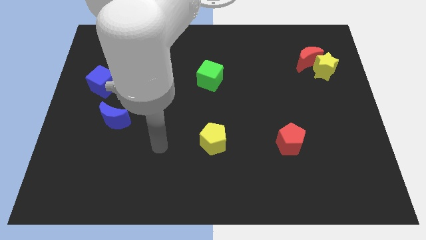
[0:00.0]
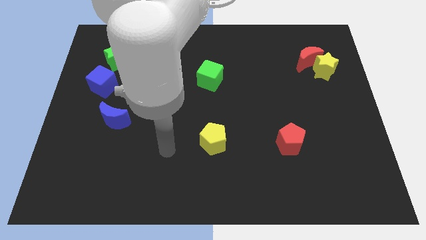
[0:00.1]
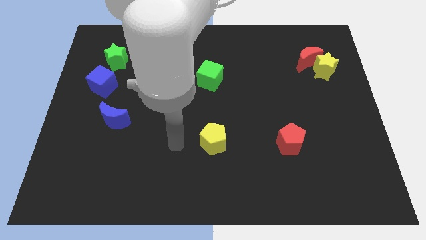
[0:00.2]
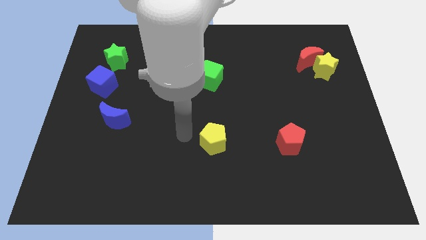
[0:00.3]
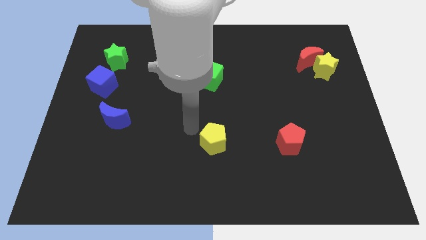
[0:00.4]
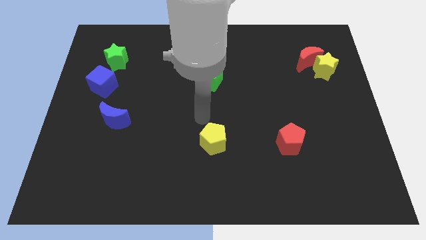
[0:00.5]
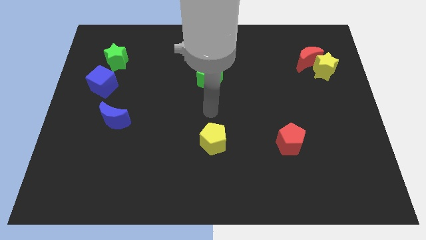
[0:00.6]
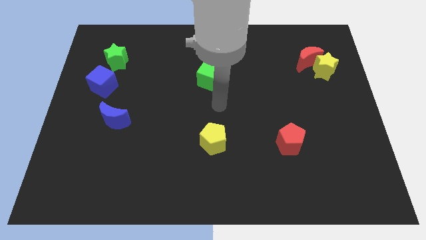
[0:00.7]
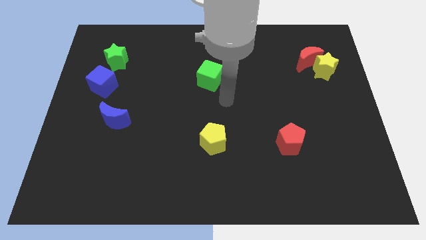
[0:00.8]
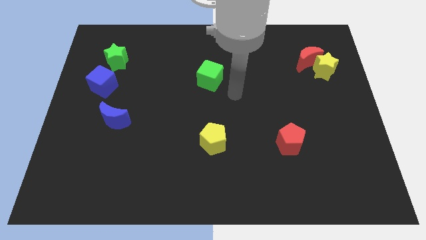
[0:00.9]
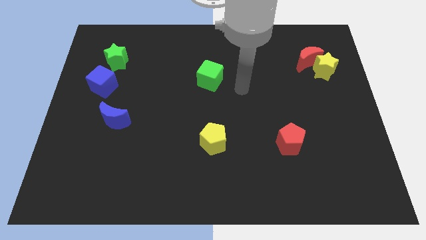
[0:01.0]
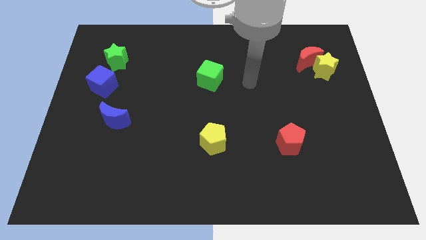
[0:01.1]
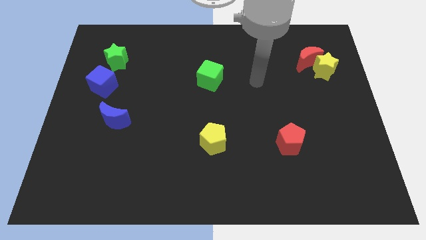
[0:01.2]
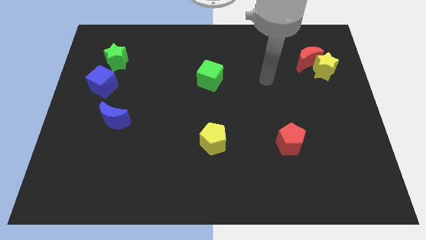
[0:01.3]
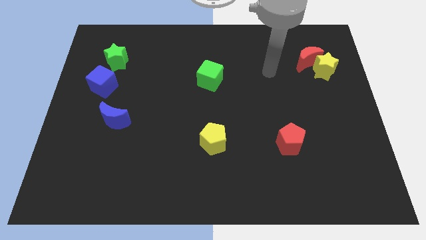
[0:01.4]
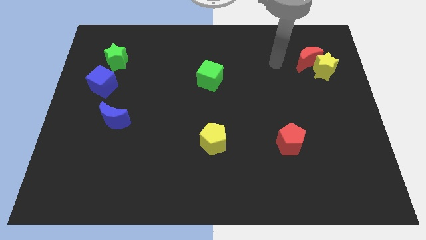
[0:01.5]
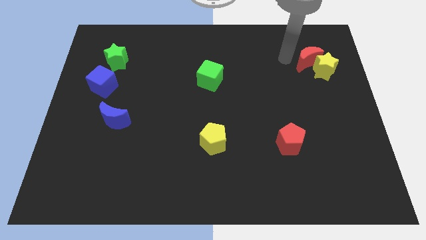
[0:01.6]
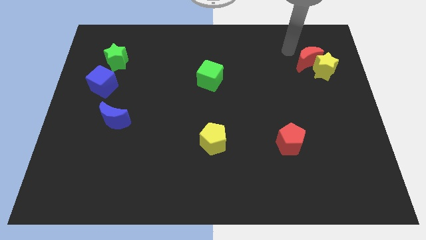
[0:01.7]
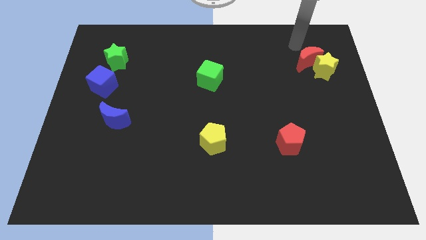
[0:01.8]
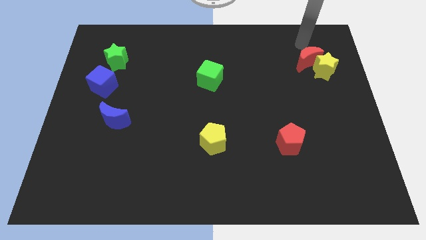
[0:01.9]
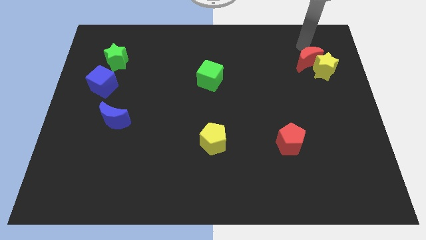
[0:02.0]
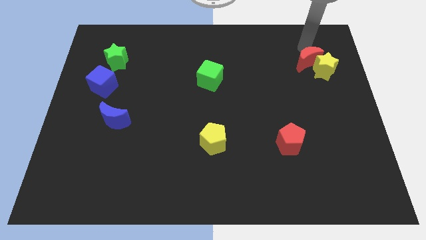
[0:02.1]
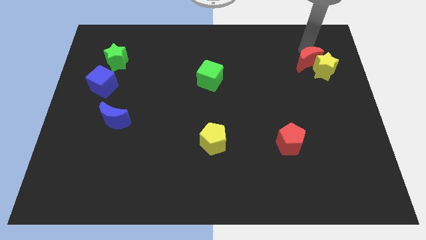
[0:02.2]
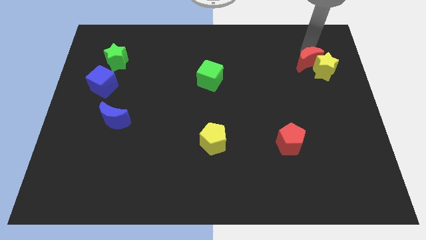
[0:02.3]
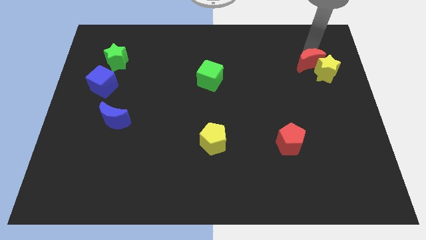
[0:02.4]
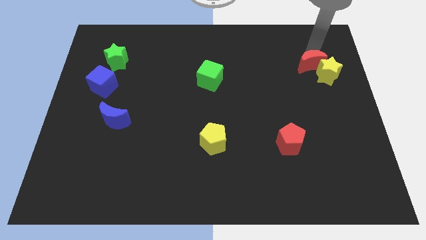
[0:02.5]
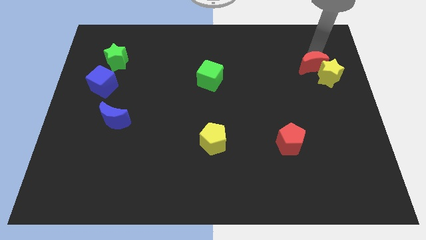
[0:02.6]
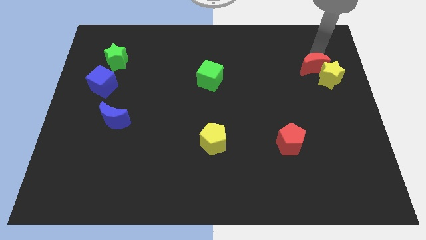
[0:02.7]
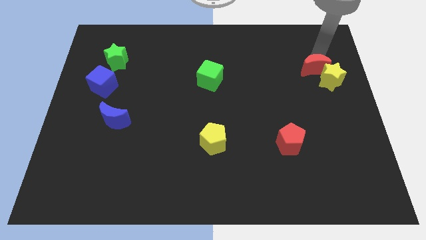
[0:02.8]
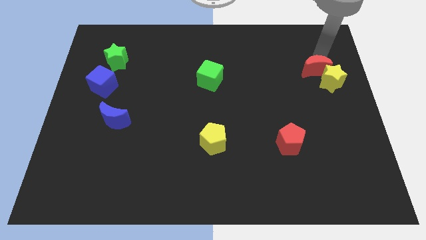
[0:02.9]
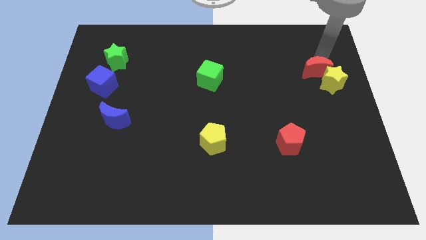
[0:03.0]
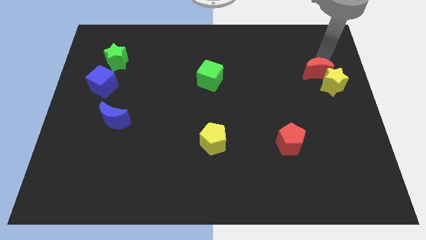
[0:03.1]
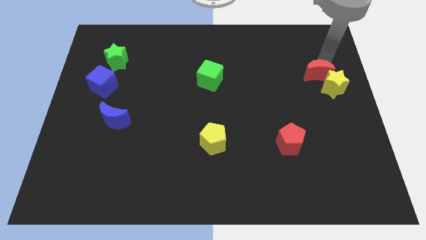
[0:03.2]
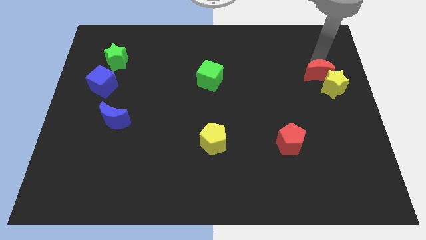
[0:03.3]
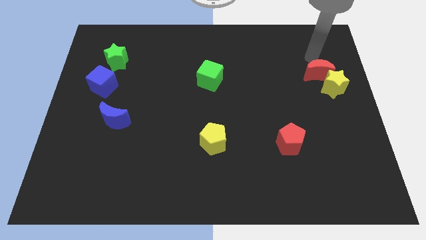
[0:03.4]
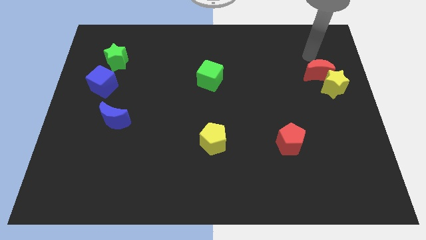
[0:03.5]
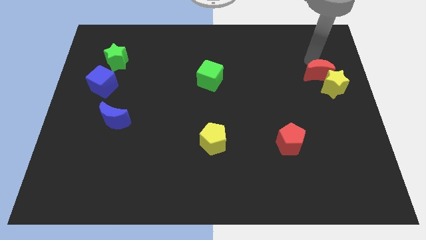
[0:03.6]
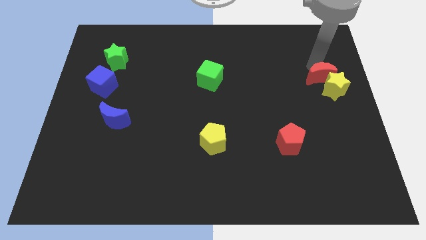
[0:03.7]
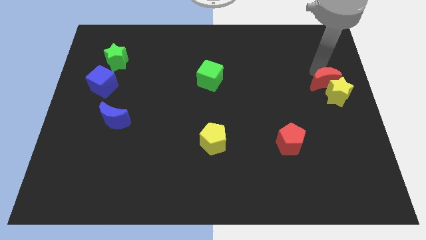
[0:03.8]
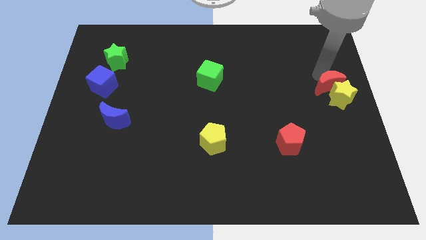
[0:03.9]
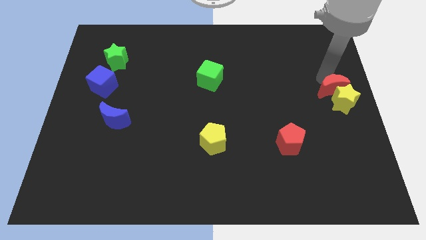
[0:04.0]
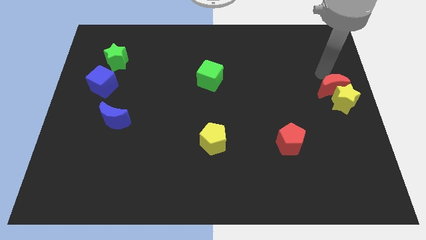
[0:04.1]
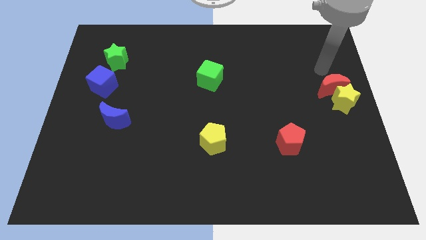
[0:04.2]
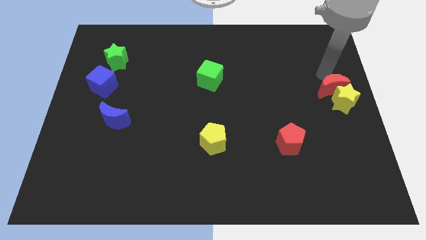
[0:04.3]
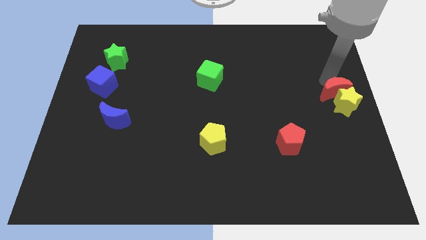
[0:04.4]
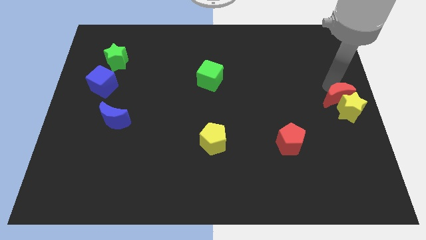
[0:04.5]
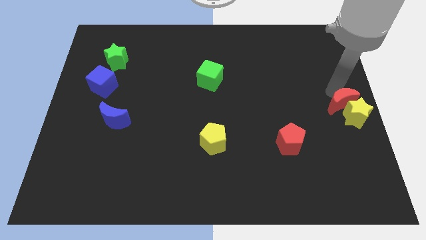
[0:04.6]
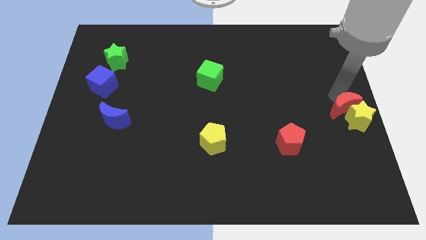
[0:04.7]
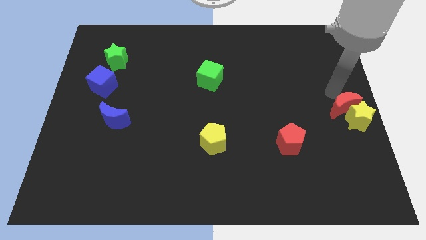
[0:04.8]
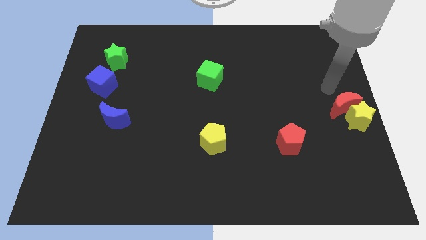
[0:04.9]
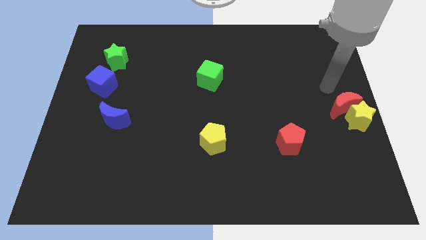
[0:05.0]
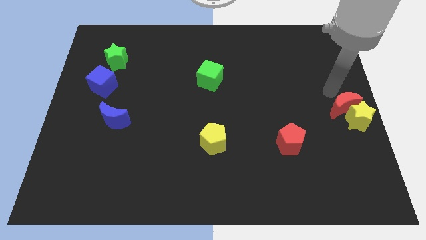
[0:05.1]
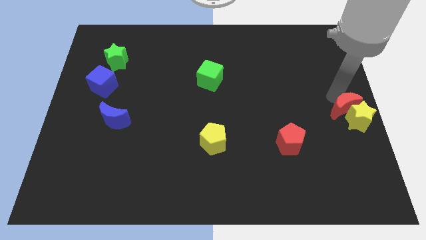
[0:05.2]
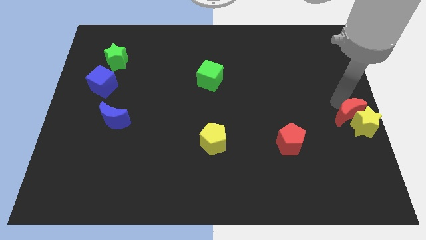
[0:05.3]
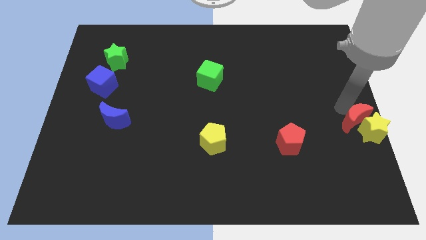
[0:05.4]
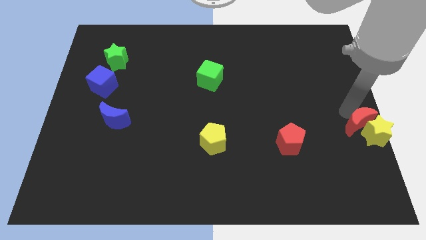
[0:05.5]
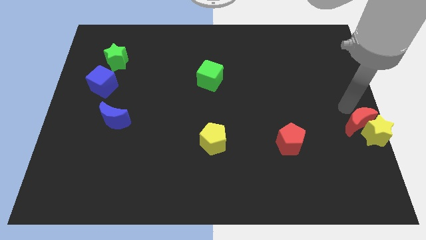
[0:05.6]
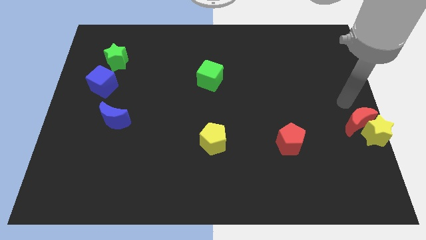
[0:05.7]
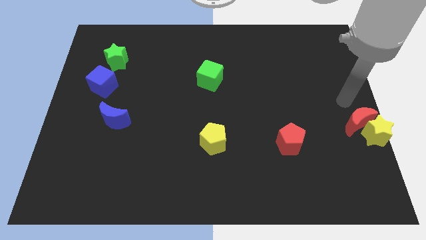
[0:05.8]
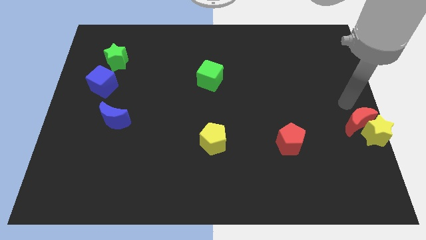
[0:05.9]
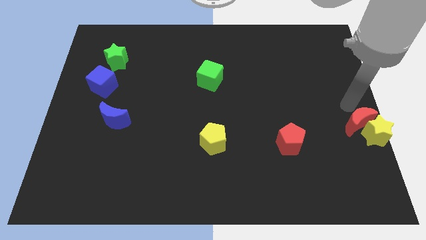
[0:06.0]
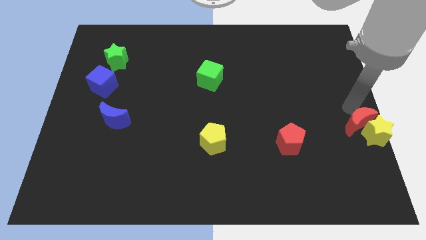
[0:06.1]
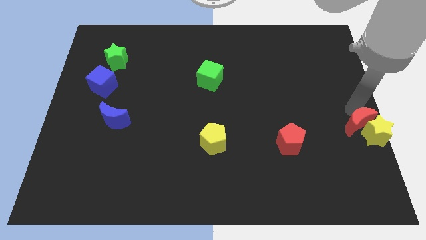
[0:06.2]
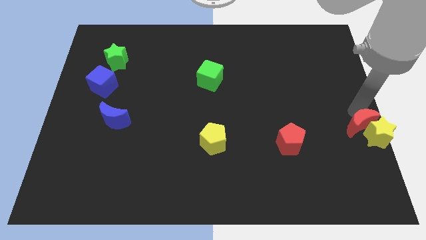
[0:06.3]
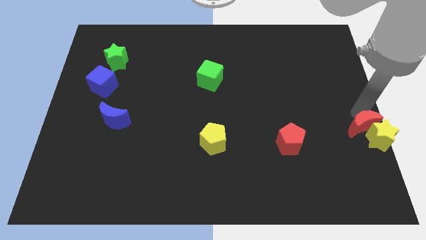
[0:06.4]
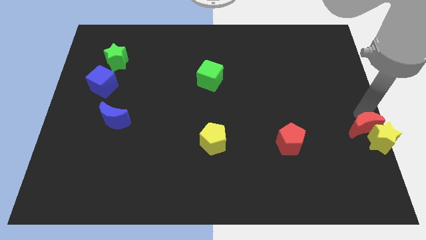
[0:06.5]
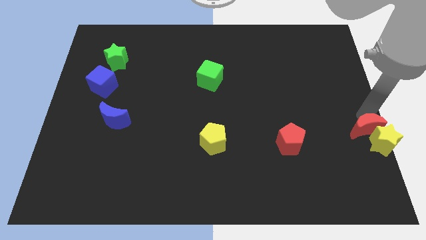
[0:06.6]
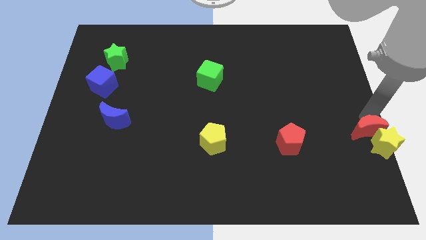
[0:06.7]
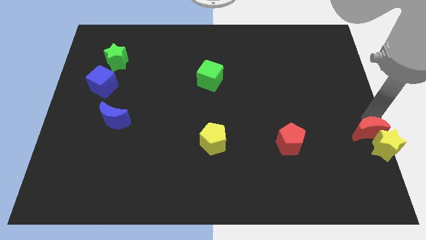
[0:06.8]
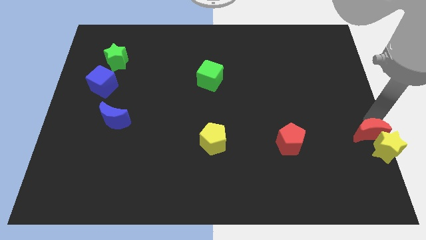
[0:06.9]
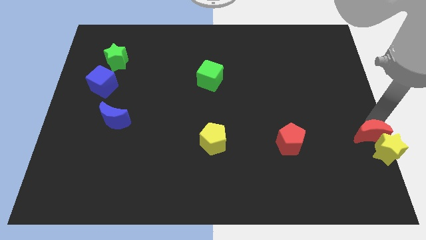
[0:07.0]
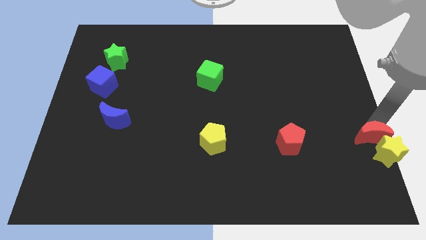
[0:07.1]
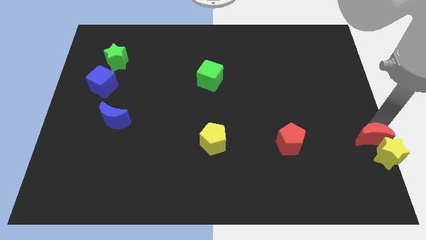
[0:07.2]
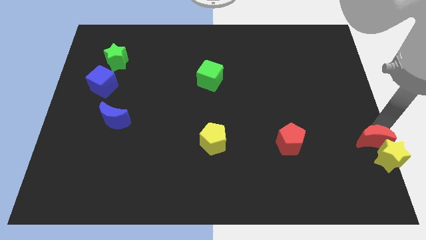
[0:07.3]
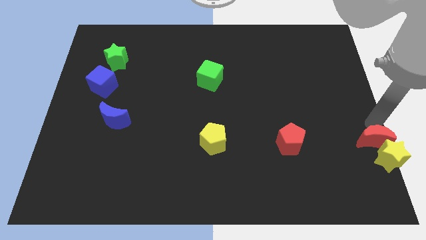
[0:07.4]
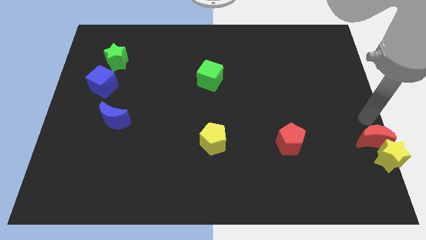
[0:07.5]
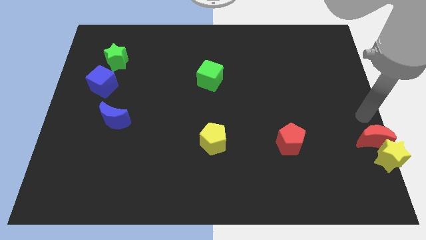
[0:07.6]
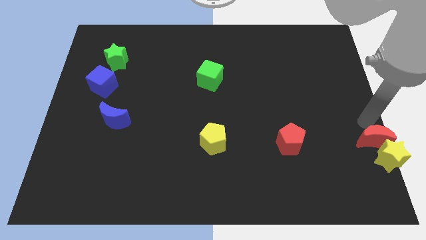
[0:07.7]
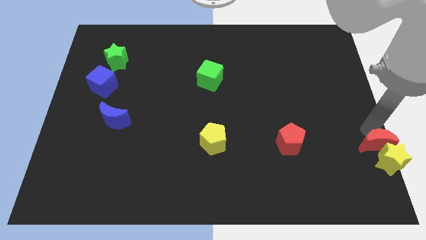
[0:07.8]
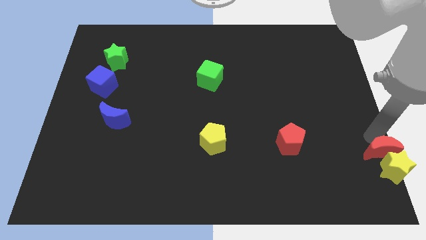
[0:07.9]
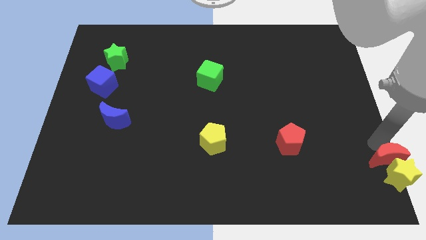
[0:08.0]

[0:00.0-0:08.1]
slide the red moon to the bottom right of the board
